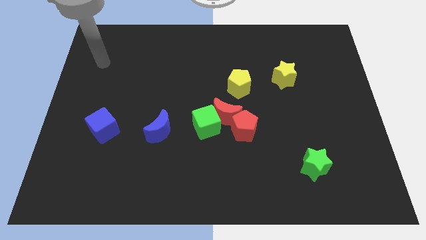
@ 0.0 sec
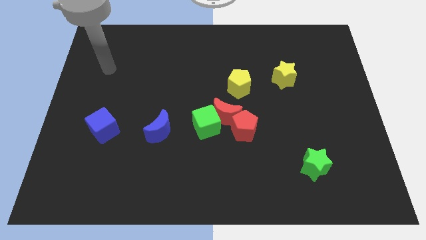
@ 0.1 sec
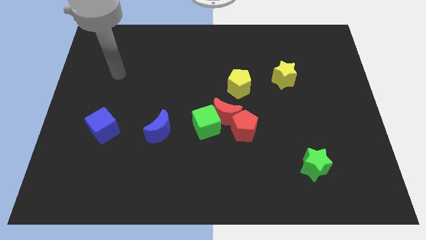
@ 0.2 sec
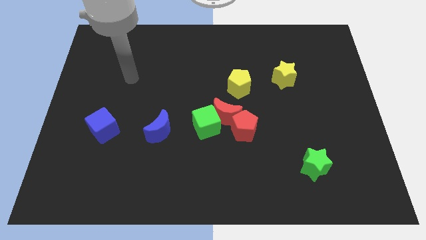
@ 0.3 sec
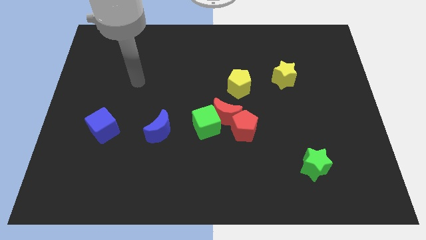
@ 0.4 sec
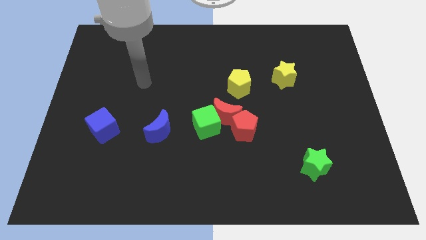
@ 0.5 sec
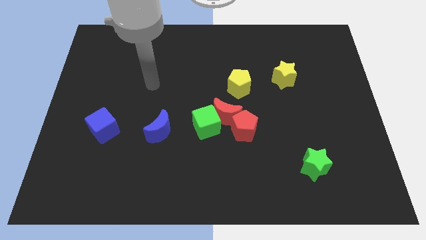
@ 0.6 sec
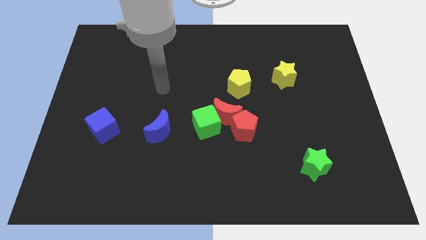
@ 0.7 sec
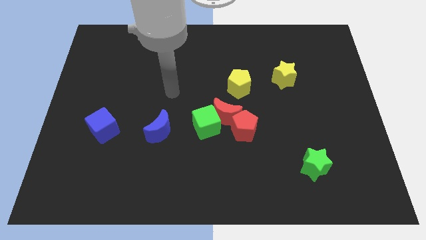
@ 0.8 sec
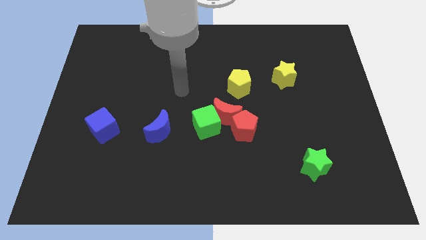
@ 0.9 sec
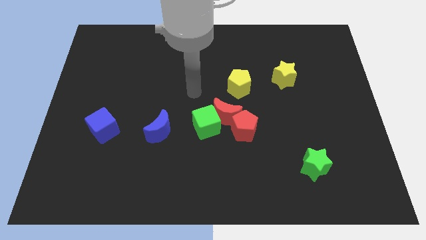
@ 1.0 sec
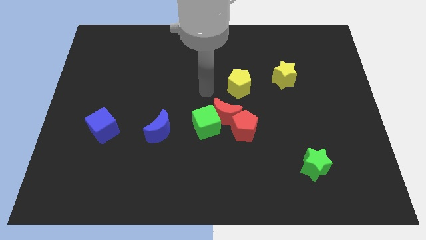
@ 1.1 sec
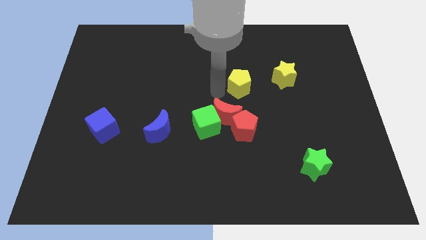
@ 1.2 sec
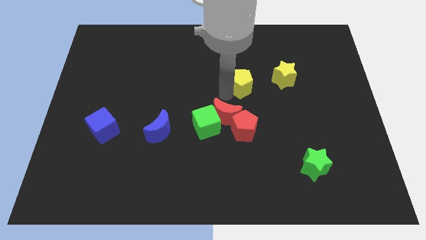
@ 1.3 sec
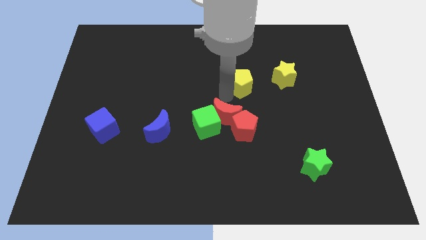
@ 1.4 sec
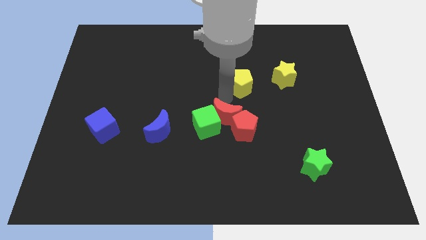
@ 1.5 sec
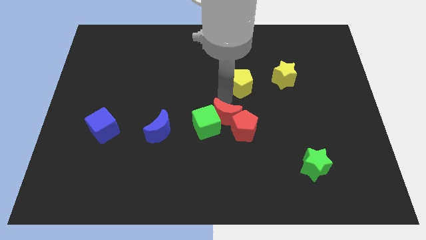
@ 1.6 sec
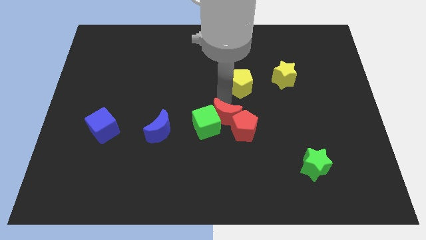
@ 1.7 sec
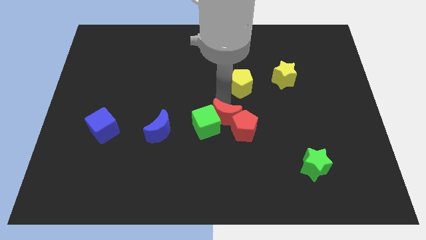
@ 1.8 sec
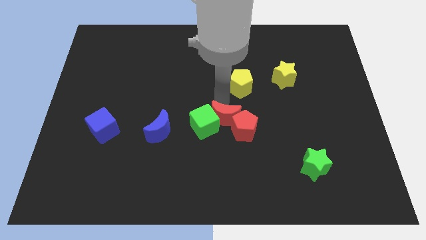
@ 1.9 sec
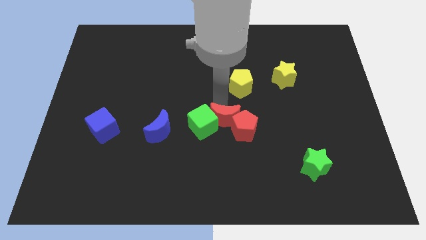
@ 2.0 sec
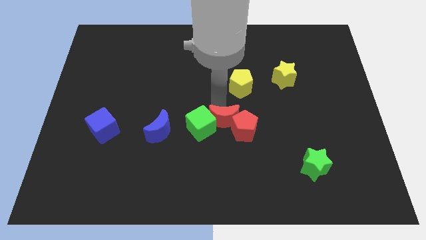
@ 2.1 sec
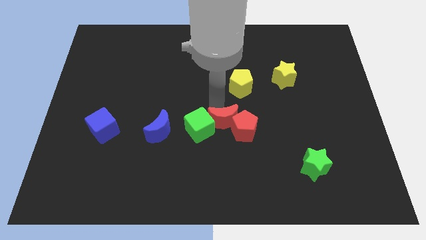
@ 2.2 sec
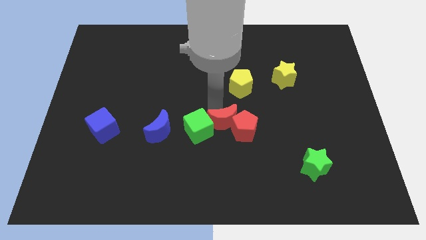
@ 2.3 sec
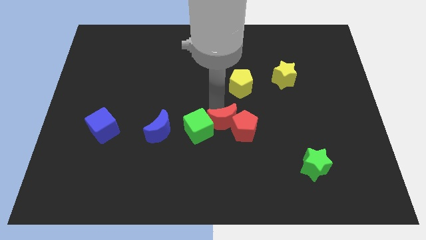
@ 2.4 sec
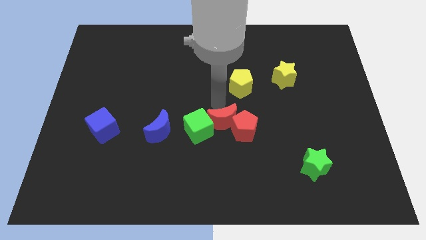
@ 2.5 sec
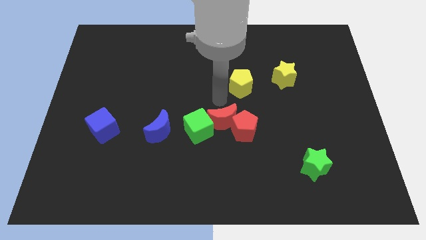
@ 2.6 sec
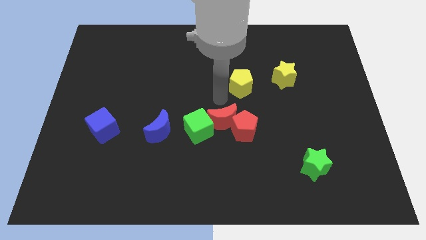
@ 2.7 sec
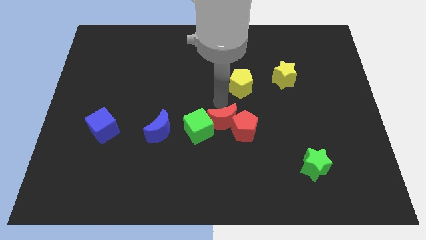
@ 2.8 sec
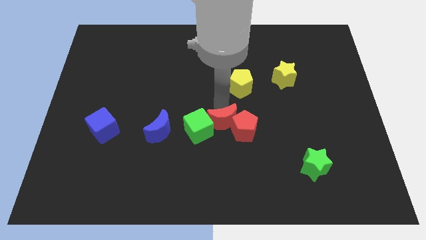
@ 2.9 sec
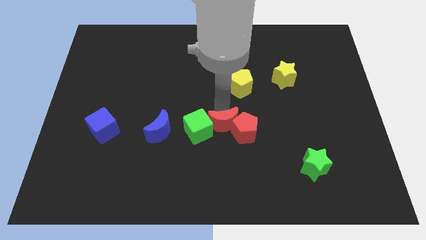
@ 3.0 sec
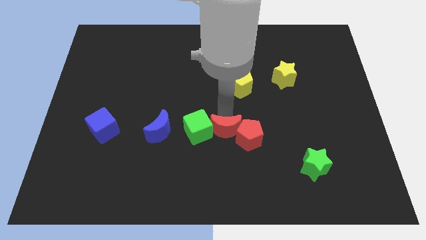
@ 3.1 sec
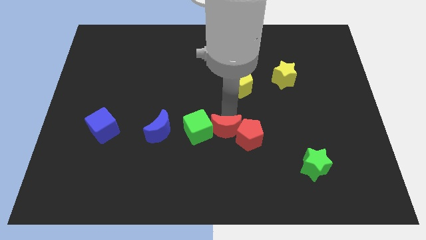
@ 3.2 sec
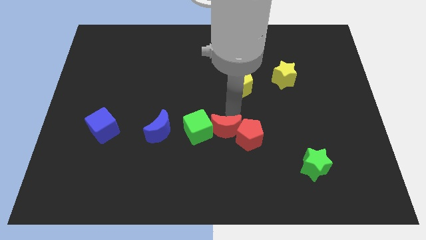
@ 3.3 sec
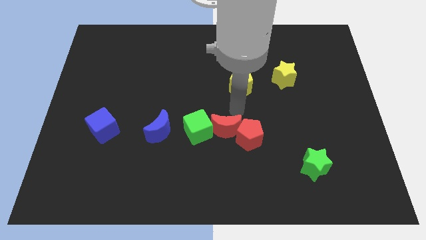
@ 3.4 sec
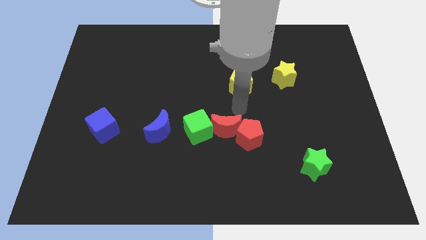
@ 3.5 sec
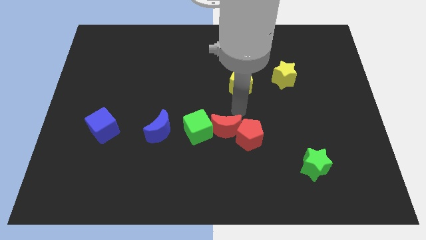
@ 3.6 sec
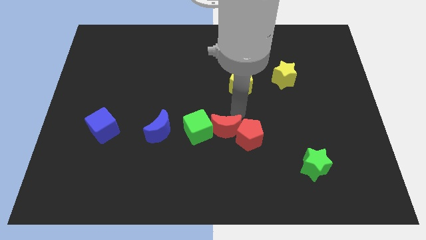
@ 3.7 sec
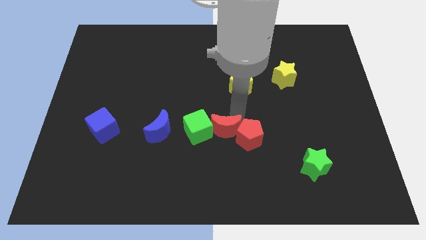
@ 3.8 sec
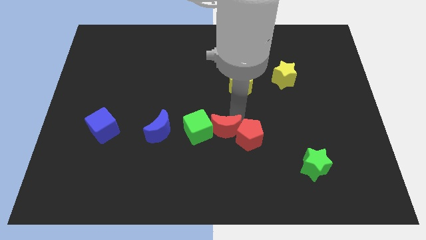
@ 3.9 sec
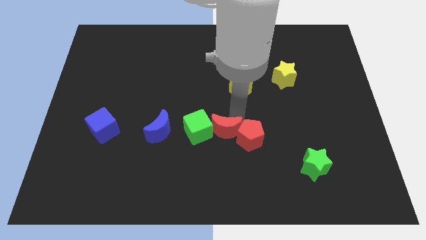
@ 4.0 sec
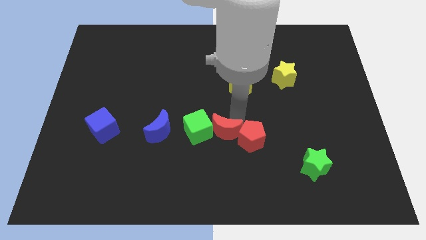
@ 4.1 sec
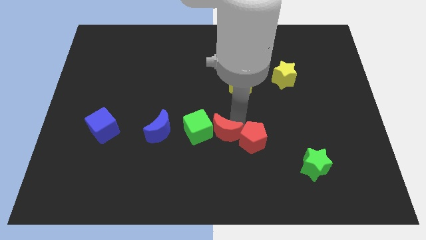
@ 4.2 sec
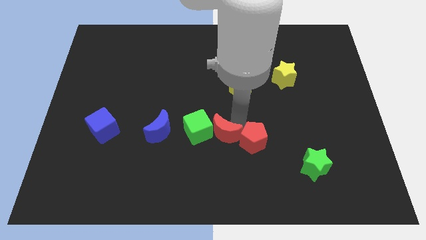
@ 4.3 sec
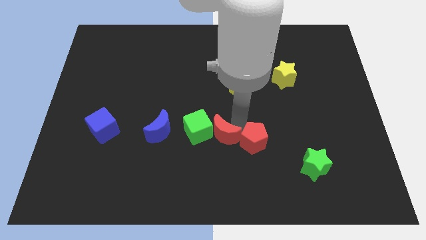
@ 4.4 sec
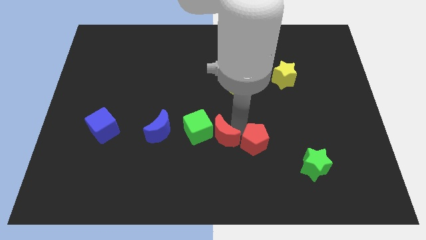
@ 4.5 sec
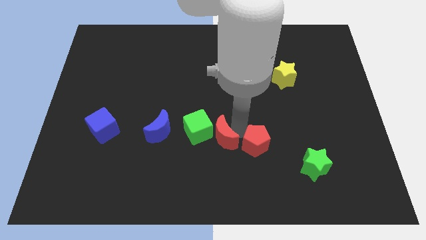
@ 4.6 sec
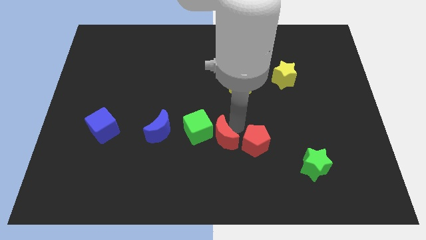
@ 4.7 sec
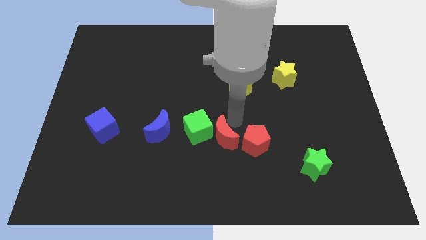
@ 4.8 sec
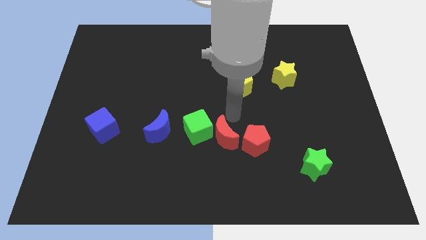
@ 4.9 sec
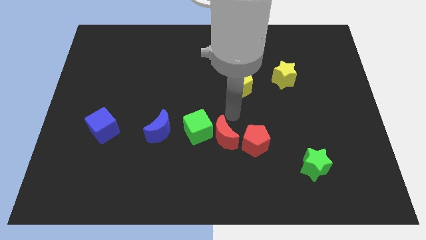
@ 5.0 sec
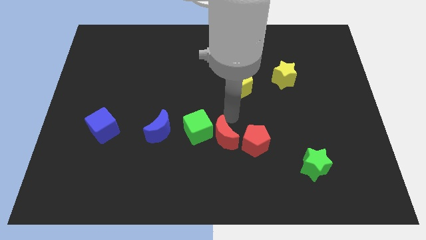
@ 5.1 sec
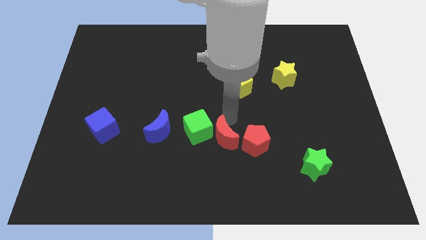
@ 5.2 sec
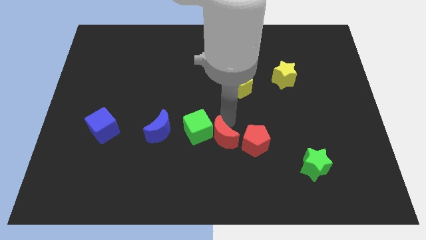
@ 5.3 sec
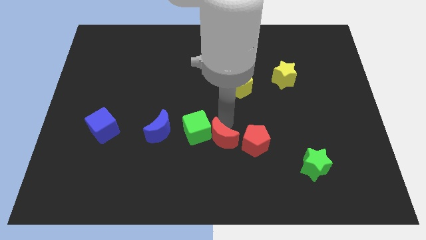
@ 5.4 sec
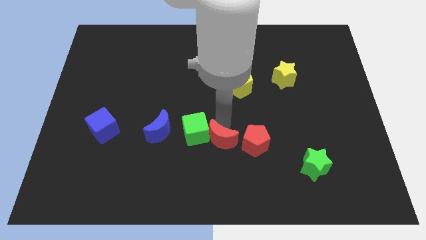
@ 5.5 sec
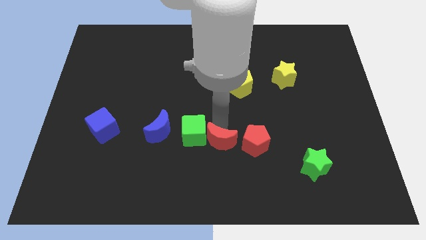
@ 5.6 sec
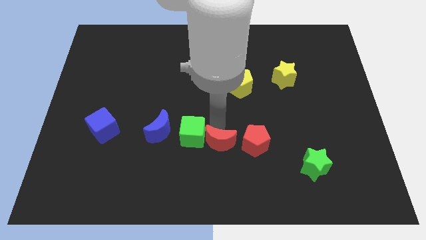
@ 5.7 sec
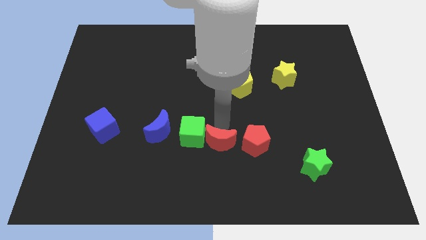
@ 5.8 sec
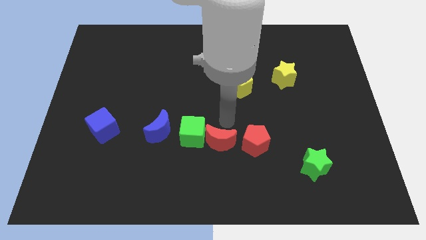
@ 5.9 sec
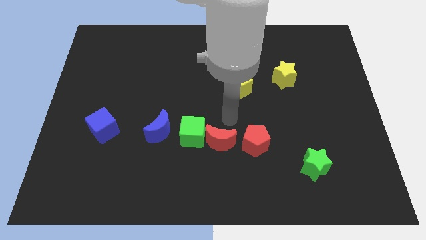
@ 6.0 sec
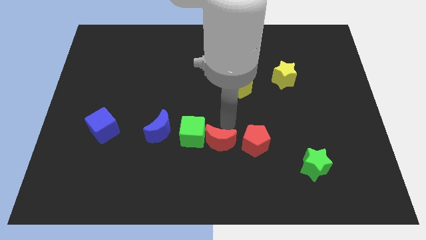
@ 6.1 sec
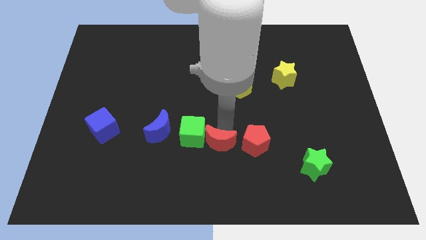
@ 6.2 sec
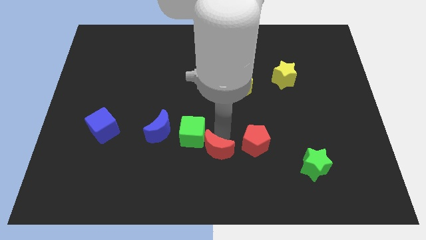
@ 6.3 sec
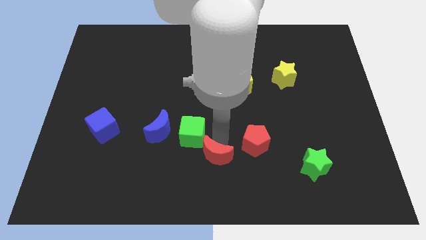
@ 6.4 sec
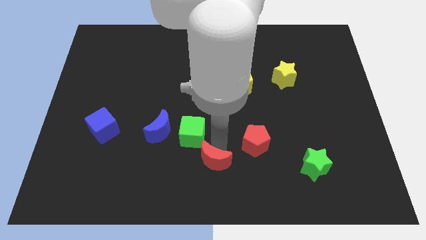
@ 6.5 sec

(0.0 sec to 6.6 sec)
pull the red moon apart from the group of blocks

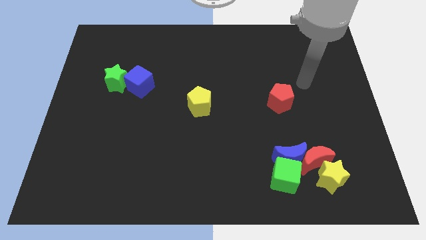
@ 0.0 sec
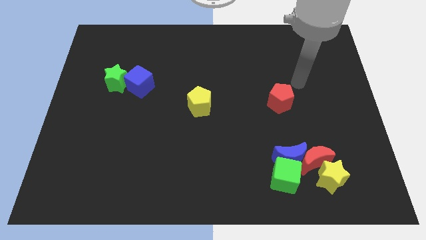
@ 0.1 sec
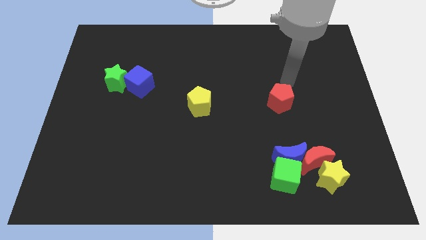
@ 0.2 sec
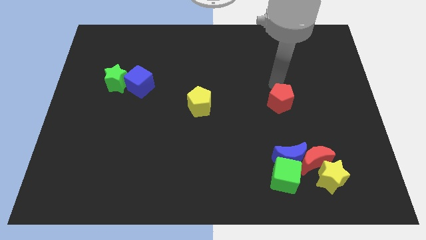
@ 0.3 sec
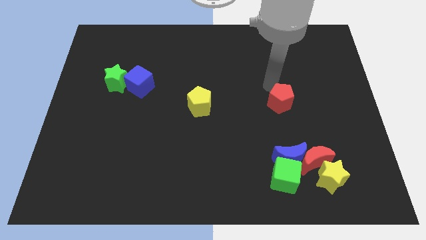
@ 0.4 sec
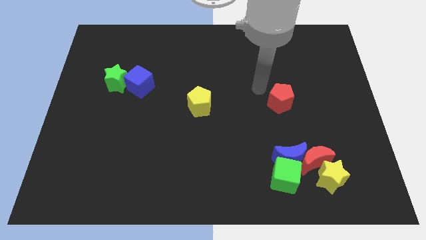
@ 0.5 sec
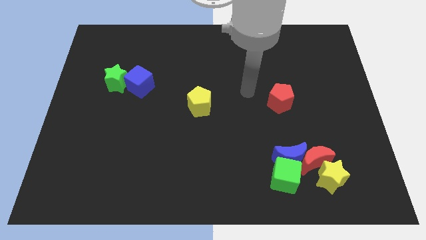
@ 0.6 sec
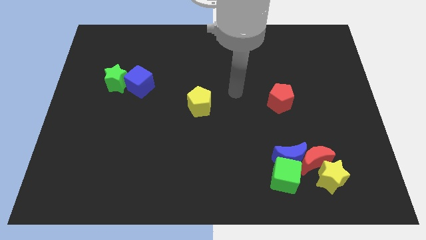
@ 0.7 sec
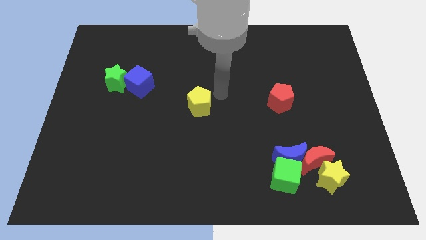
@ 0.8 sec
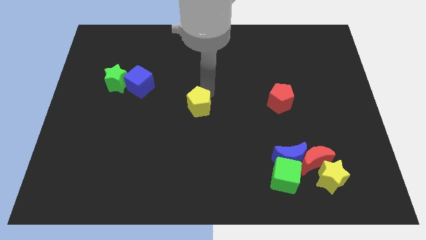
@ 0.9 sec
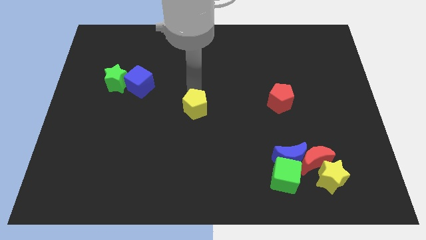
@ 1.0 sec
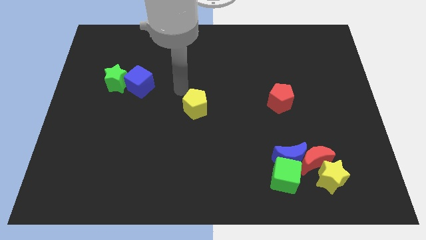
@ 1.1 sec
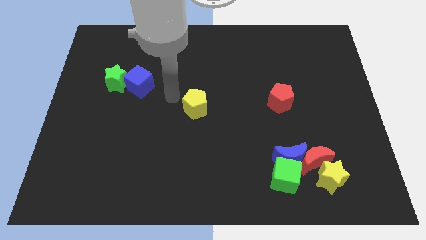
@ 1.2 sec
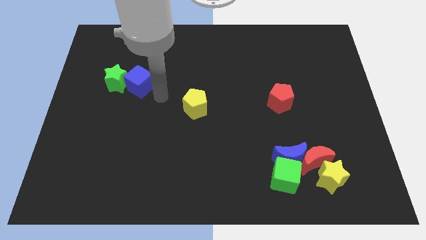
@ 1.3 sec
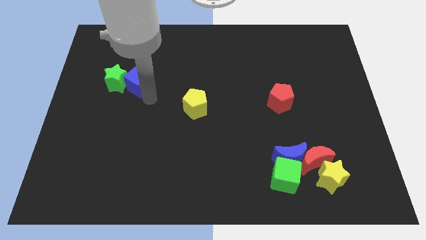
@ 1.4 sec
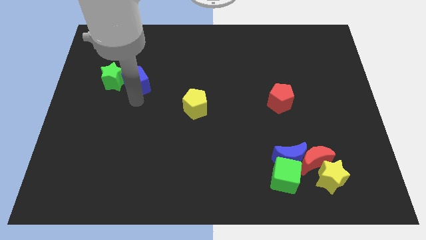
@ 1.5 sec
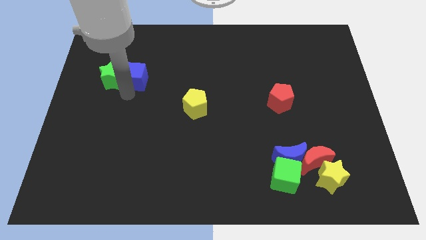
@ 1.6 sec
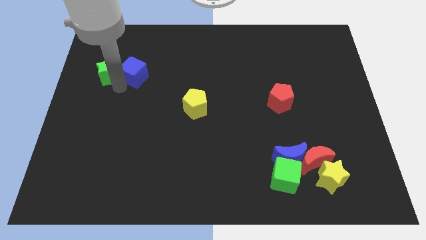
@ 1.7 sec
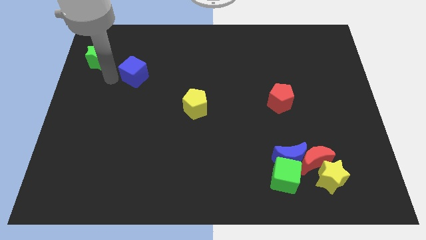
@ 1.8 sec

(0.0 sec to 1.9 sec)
separate the blue cube from the green star

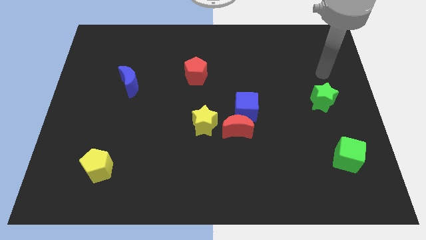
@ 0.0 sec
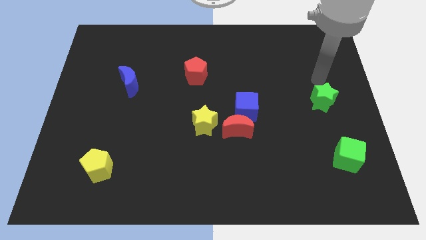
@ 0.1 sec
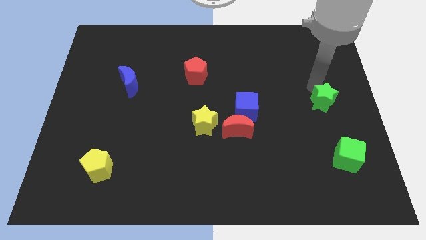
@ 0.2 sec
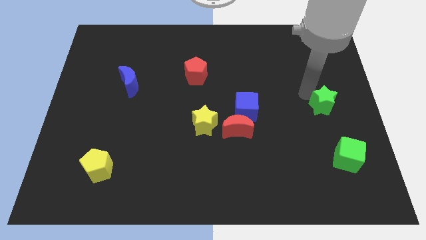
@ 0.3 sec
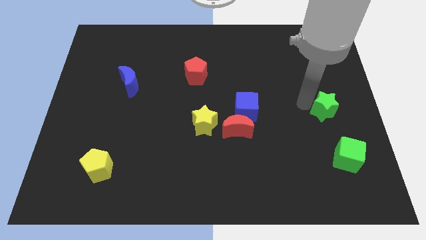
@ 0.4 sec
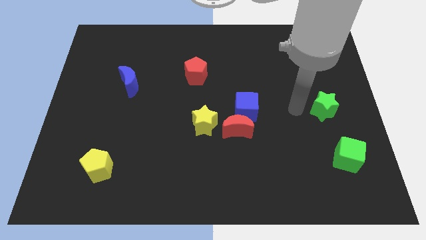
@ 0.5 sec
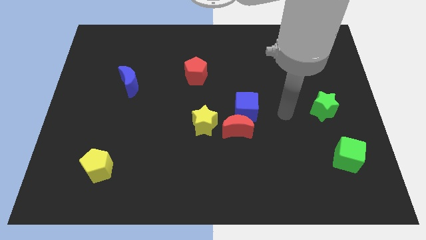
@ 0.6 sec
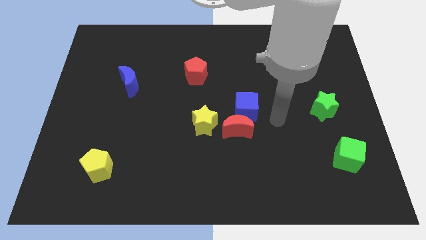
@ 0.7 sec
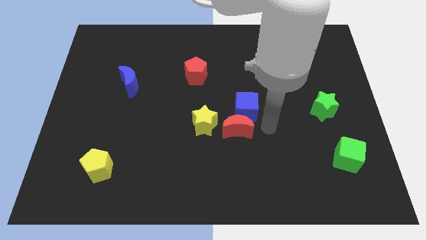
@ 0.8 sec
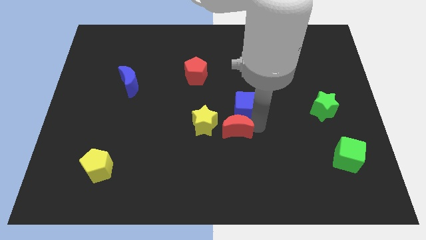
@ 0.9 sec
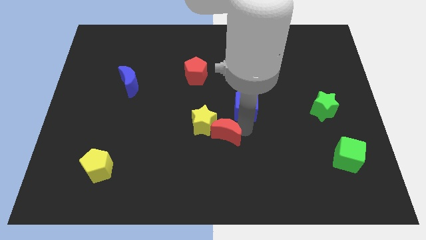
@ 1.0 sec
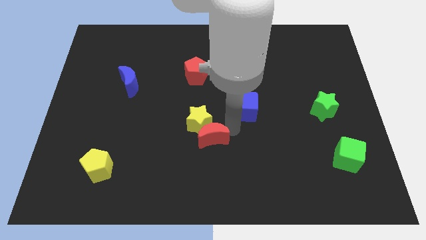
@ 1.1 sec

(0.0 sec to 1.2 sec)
move the blue cube away from the red moon
